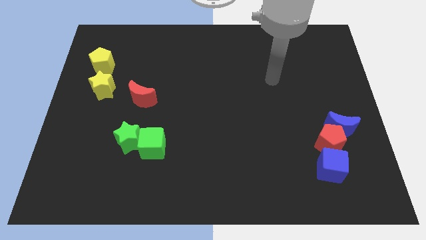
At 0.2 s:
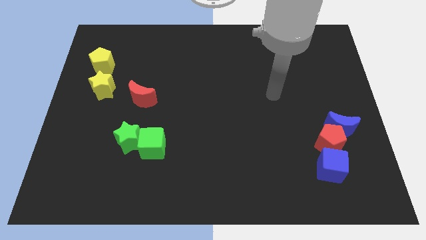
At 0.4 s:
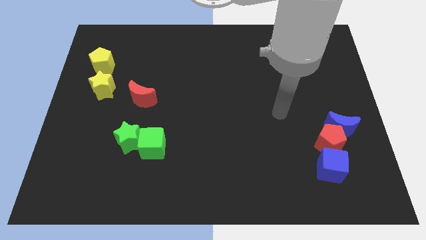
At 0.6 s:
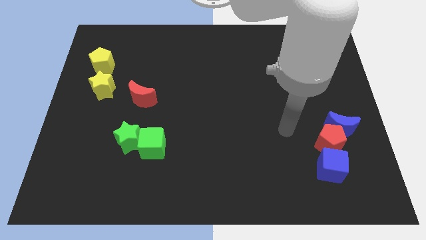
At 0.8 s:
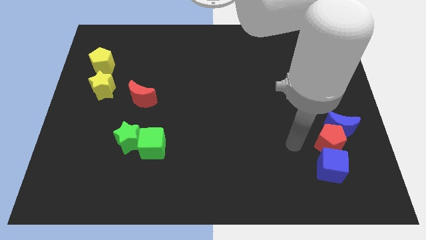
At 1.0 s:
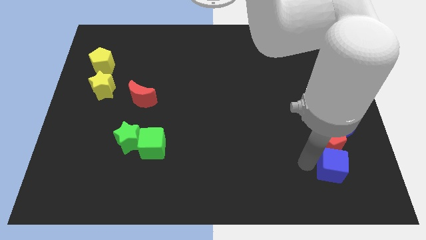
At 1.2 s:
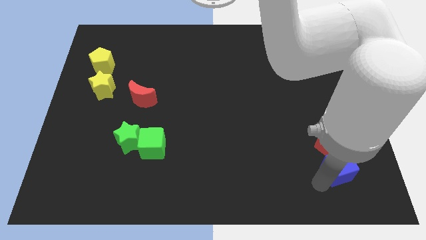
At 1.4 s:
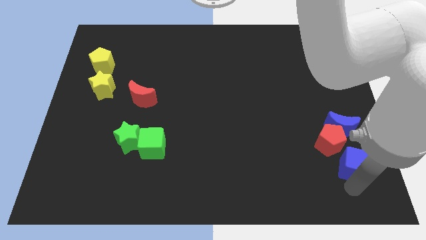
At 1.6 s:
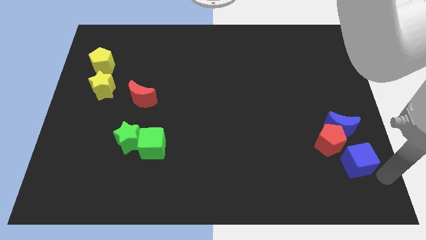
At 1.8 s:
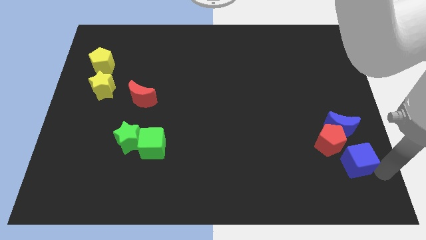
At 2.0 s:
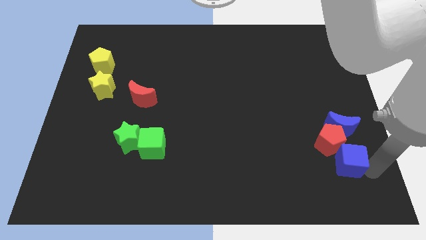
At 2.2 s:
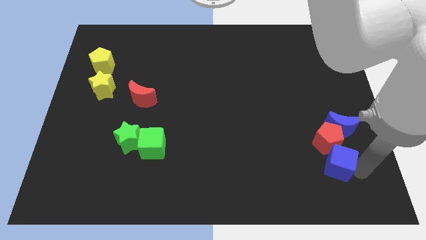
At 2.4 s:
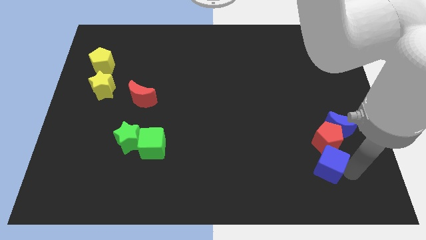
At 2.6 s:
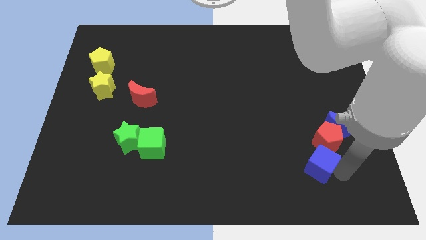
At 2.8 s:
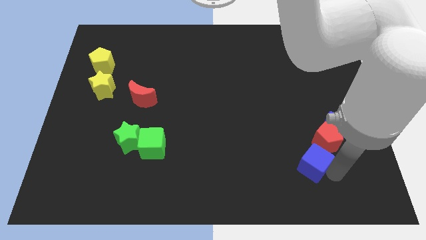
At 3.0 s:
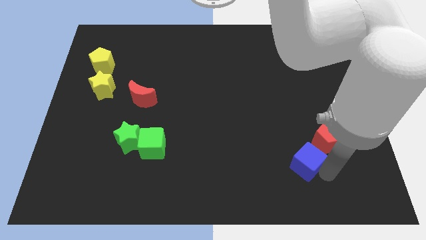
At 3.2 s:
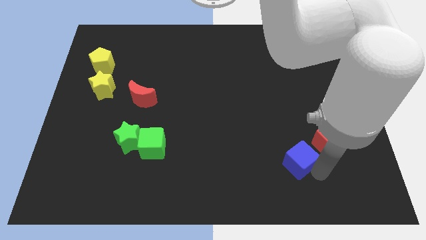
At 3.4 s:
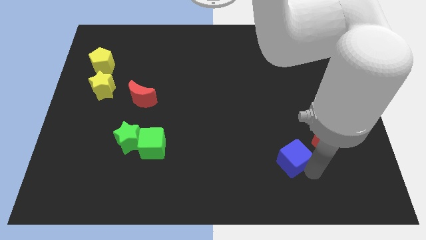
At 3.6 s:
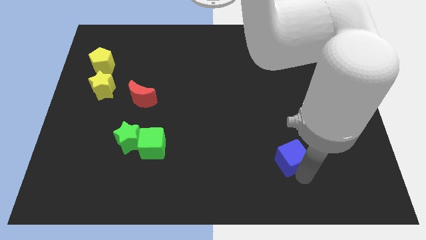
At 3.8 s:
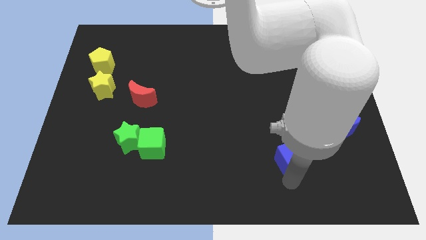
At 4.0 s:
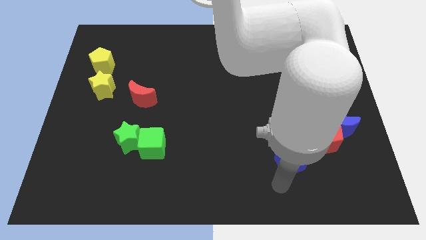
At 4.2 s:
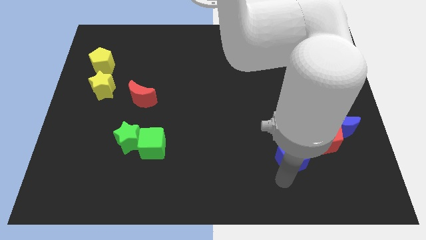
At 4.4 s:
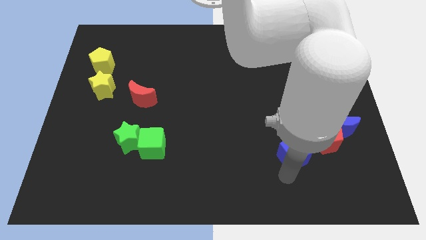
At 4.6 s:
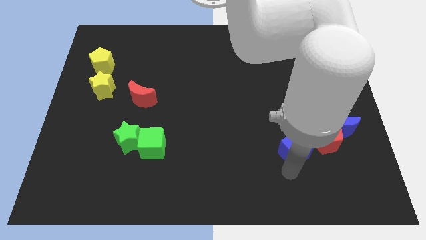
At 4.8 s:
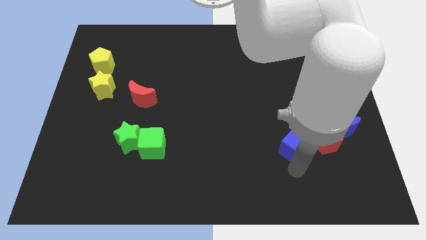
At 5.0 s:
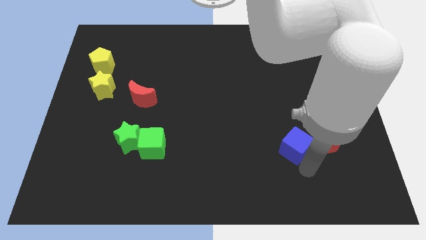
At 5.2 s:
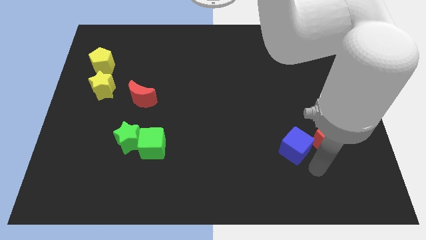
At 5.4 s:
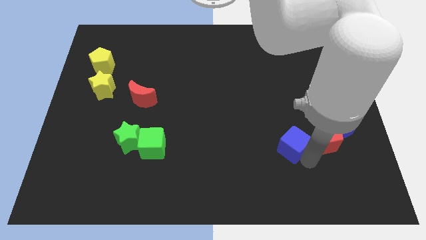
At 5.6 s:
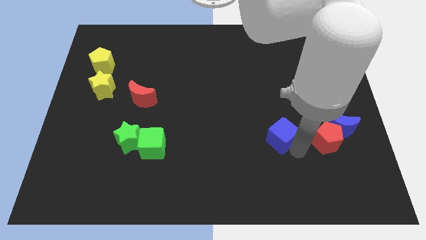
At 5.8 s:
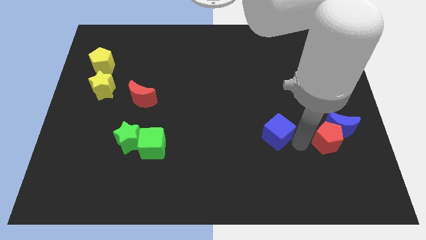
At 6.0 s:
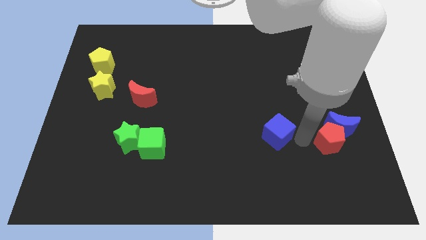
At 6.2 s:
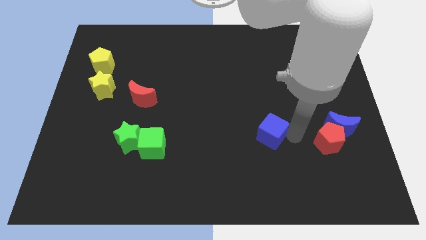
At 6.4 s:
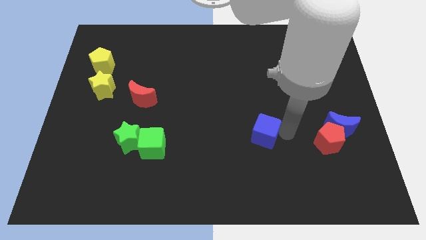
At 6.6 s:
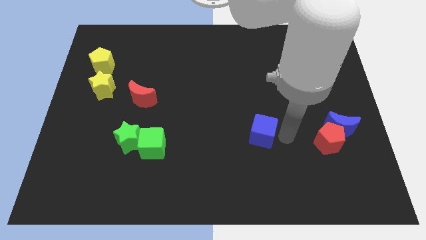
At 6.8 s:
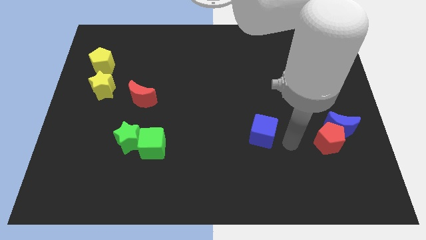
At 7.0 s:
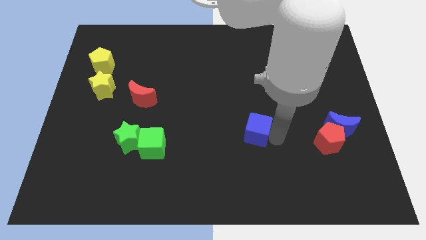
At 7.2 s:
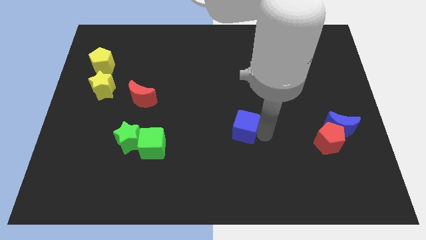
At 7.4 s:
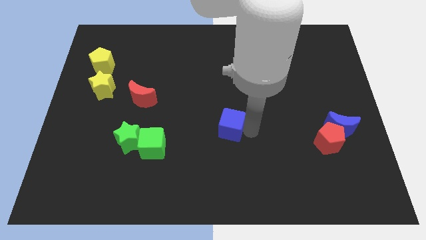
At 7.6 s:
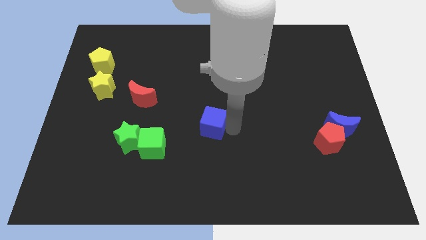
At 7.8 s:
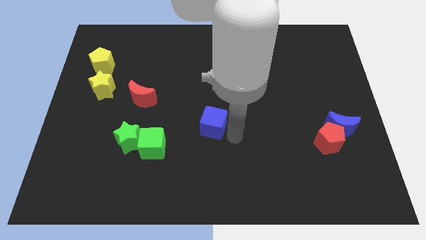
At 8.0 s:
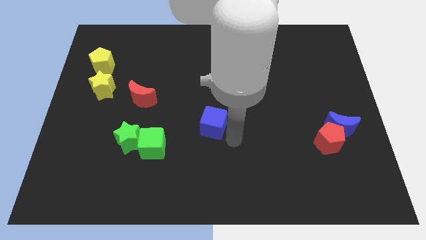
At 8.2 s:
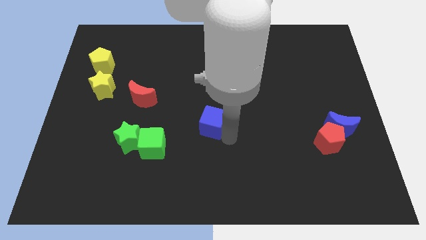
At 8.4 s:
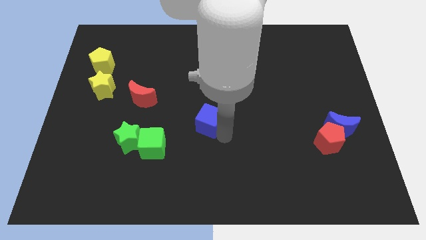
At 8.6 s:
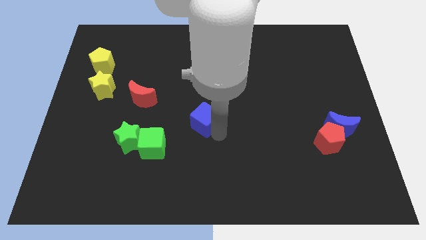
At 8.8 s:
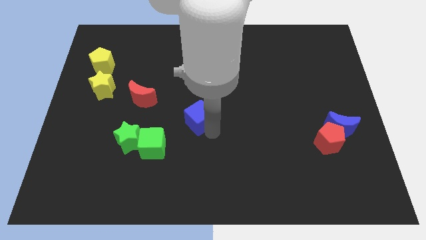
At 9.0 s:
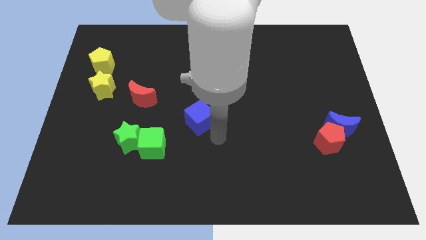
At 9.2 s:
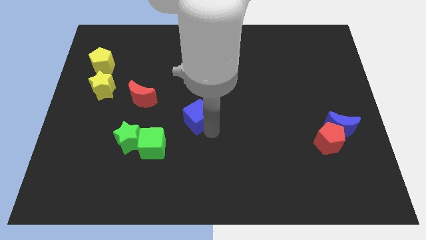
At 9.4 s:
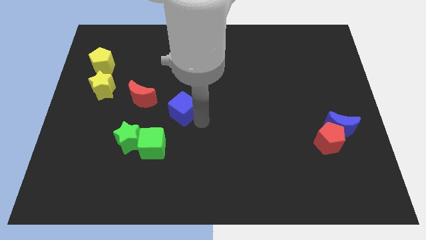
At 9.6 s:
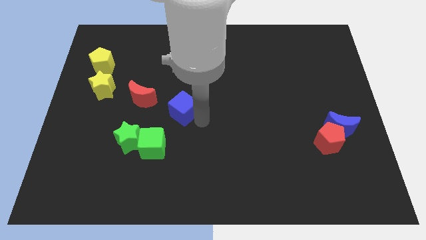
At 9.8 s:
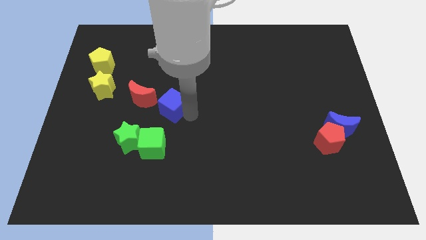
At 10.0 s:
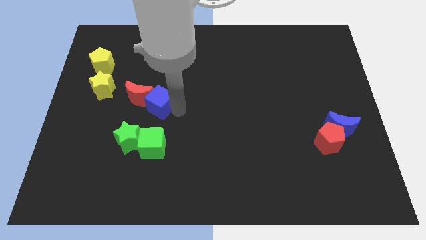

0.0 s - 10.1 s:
push the blue cube to the red moon

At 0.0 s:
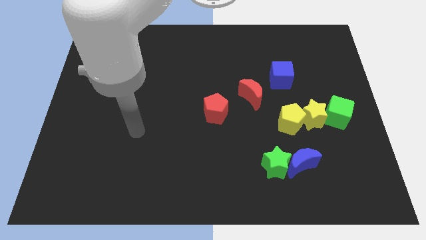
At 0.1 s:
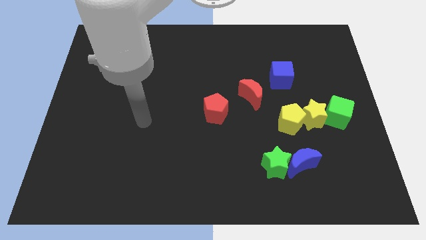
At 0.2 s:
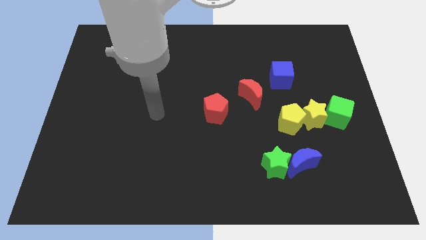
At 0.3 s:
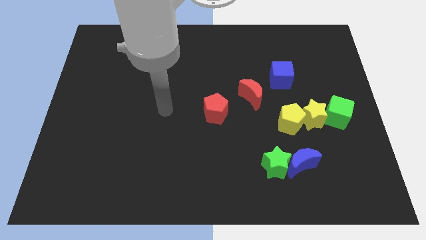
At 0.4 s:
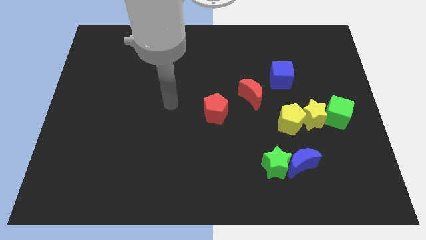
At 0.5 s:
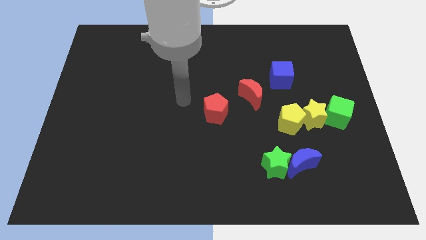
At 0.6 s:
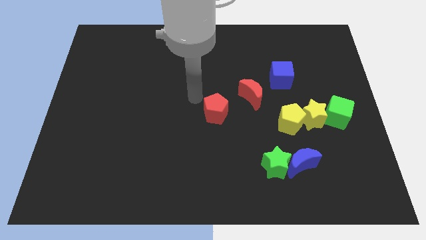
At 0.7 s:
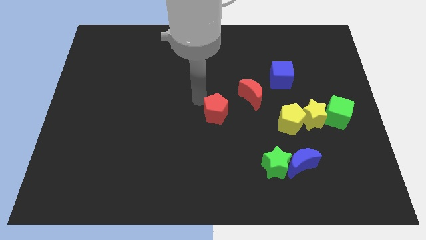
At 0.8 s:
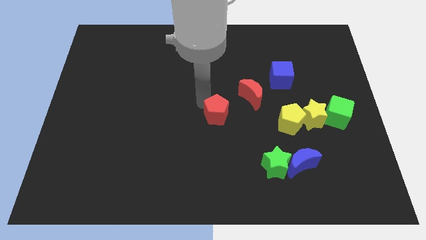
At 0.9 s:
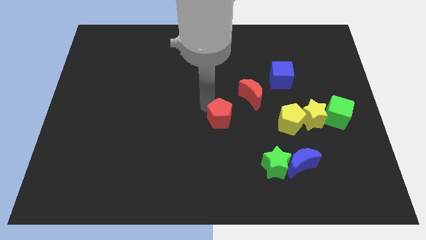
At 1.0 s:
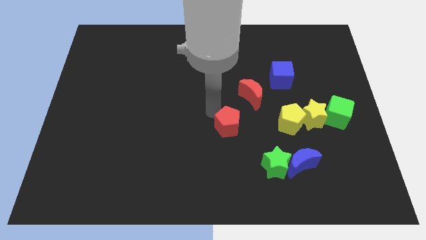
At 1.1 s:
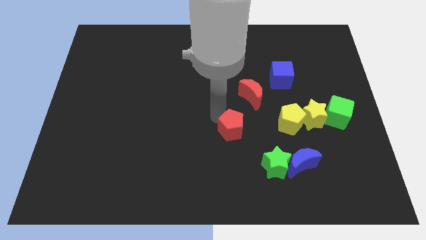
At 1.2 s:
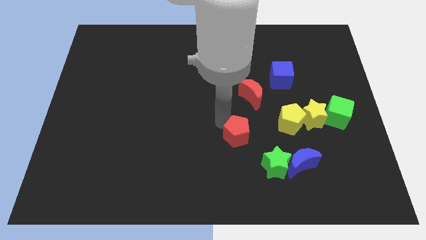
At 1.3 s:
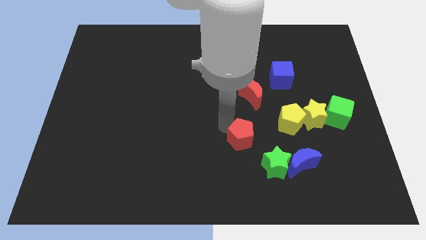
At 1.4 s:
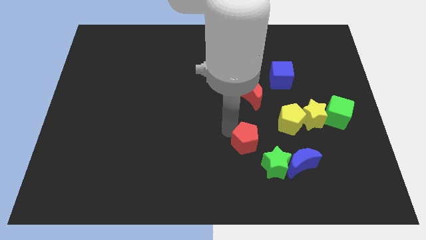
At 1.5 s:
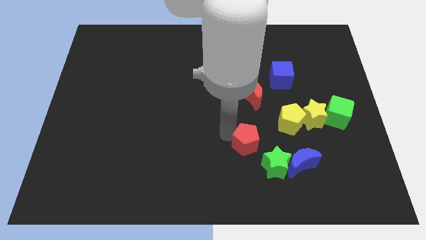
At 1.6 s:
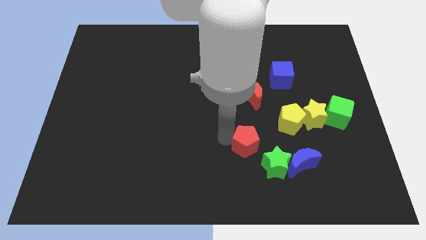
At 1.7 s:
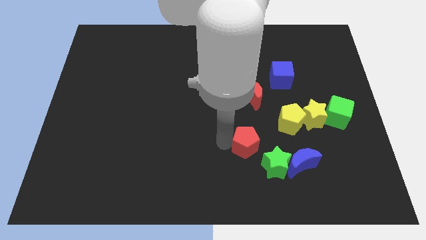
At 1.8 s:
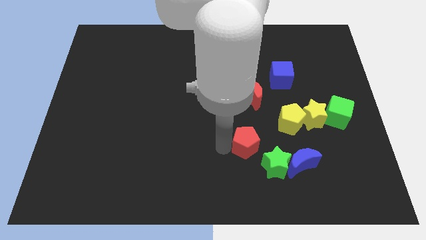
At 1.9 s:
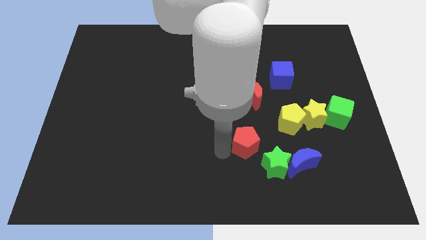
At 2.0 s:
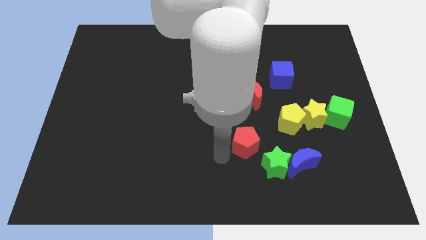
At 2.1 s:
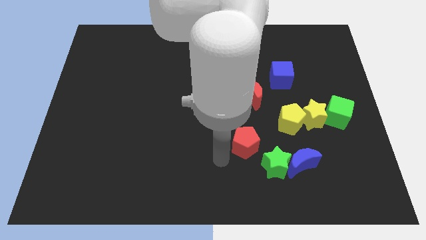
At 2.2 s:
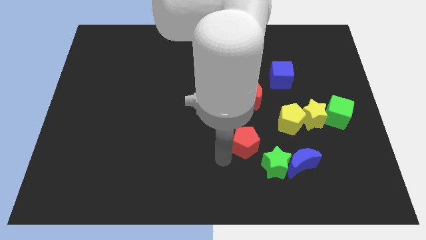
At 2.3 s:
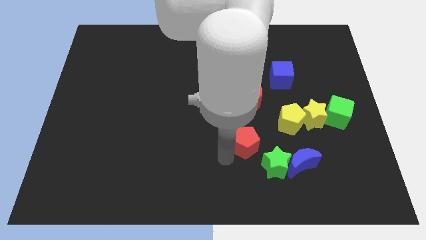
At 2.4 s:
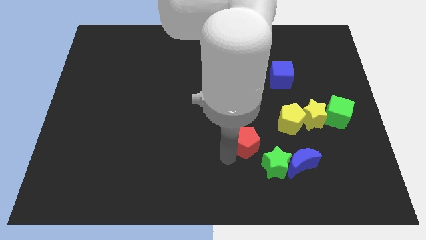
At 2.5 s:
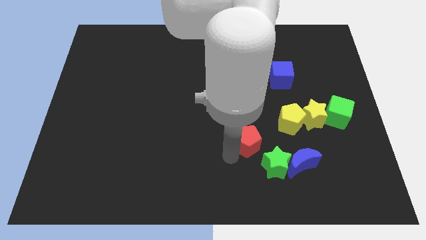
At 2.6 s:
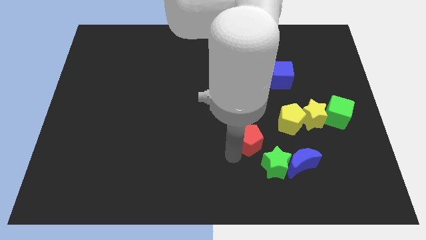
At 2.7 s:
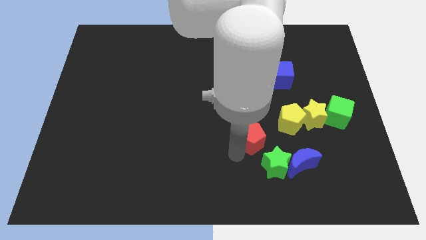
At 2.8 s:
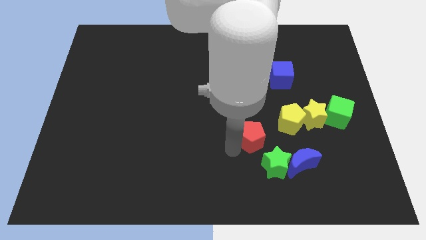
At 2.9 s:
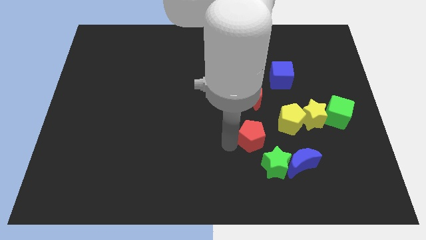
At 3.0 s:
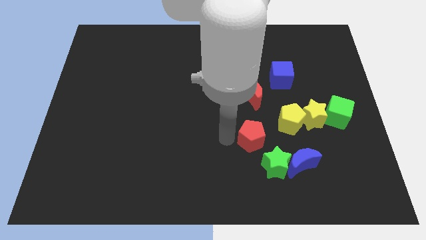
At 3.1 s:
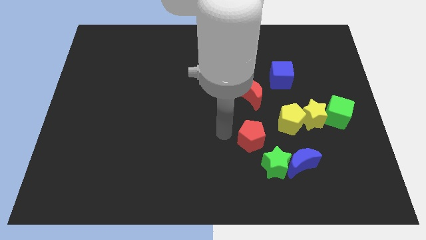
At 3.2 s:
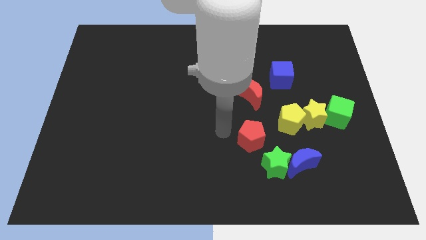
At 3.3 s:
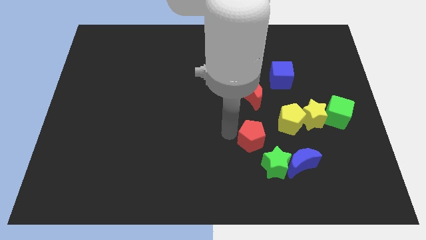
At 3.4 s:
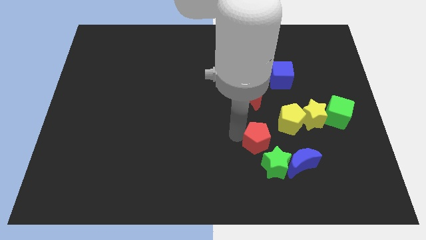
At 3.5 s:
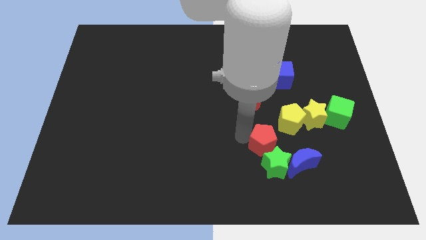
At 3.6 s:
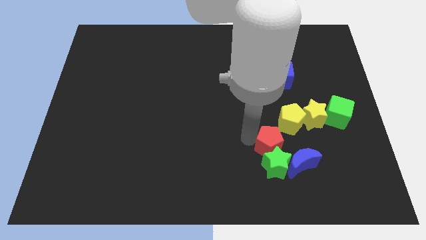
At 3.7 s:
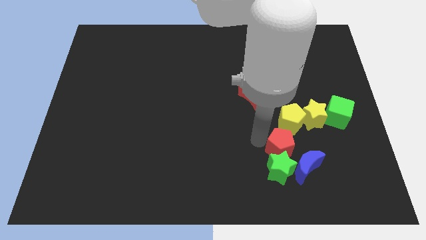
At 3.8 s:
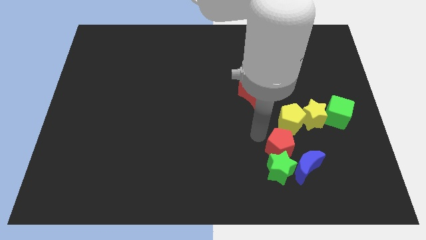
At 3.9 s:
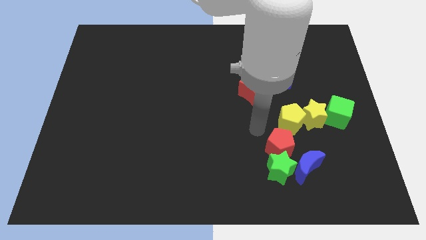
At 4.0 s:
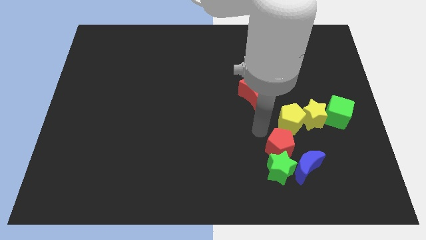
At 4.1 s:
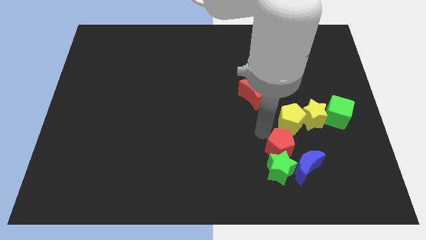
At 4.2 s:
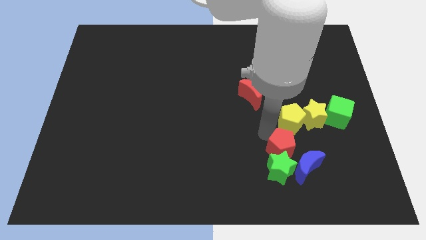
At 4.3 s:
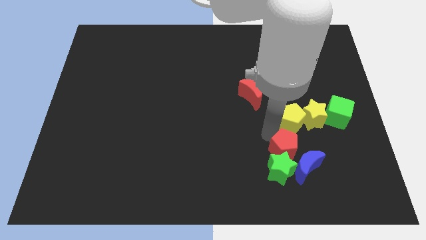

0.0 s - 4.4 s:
slide the red pentagon next to the blue moon
